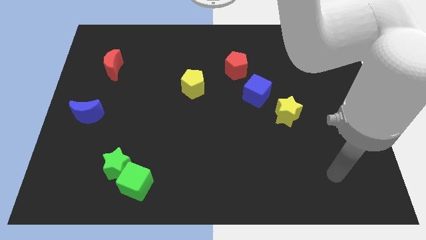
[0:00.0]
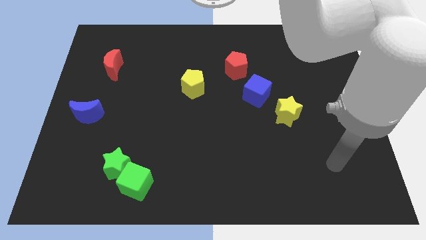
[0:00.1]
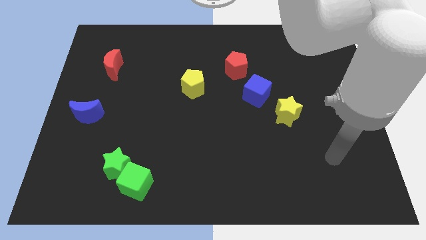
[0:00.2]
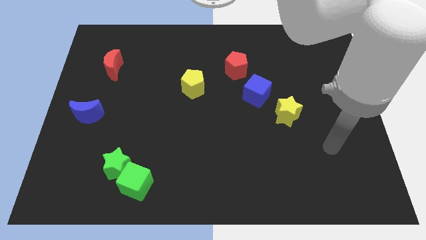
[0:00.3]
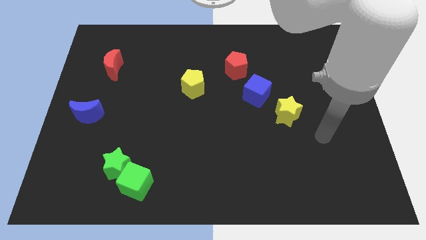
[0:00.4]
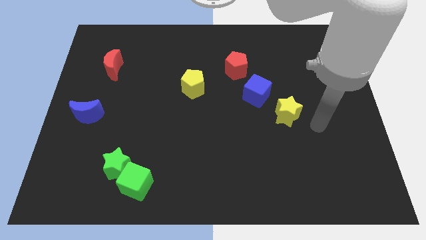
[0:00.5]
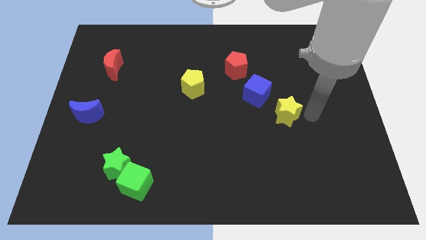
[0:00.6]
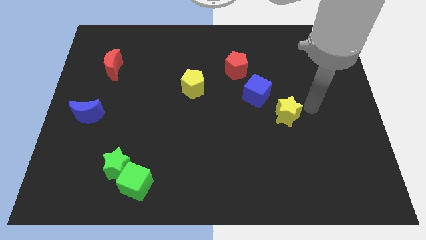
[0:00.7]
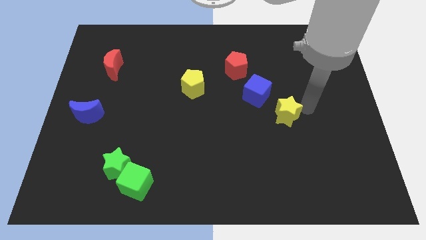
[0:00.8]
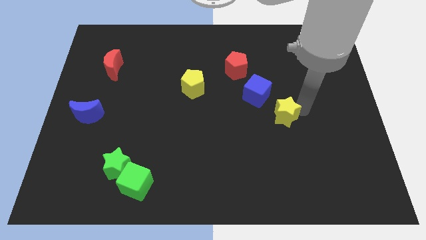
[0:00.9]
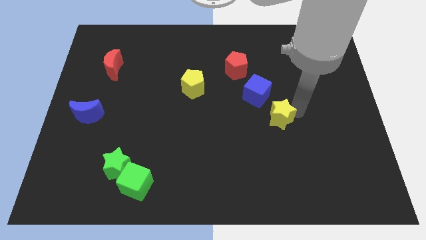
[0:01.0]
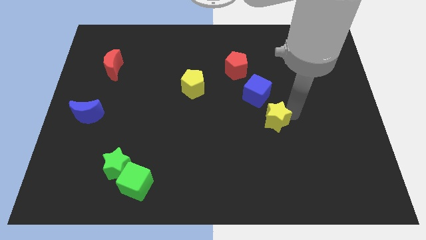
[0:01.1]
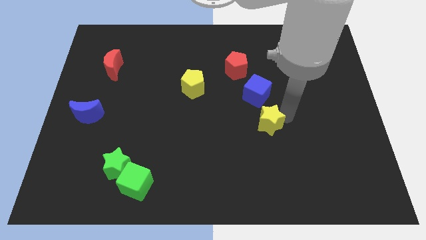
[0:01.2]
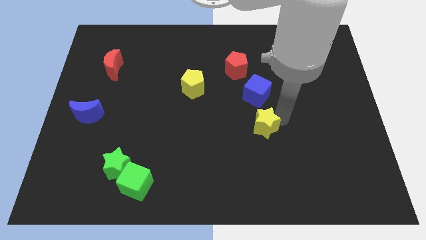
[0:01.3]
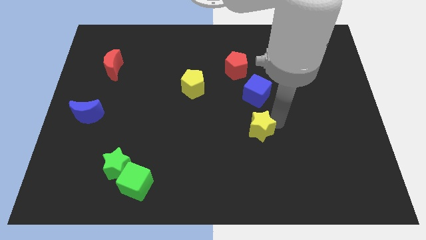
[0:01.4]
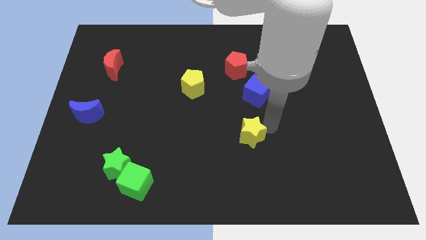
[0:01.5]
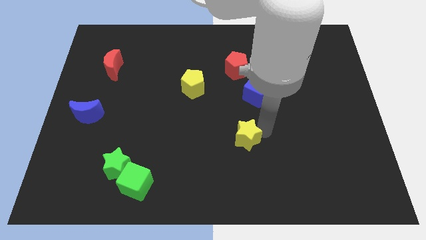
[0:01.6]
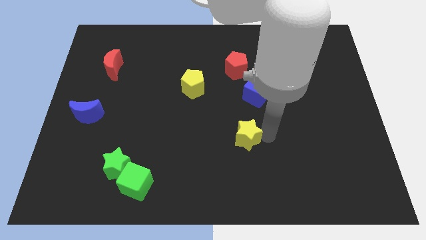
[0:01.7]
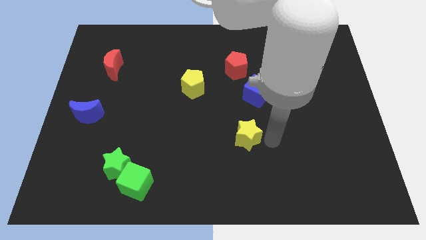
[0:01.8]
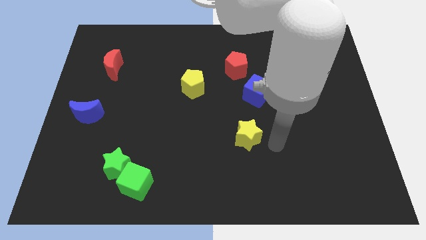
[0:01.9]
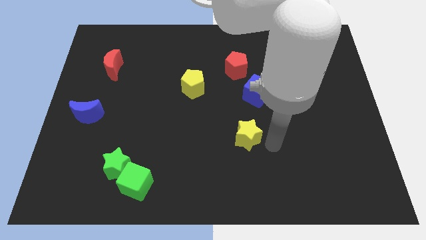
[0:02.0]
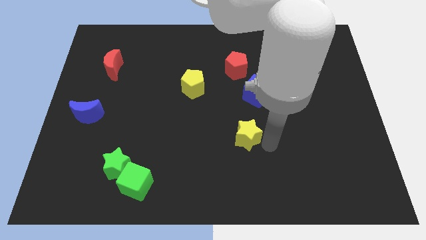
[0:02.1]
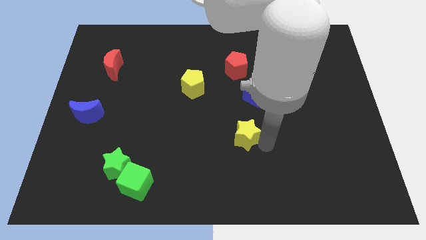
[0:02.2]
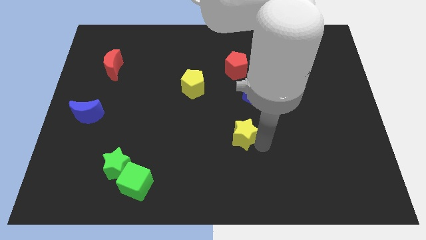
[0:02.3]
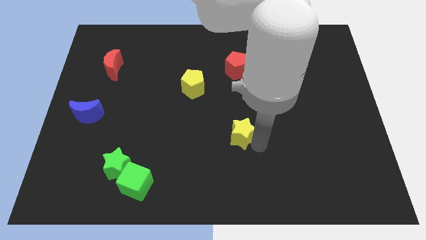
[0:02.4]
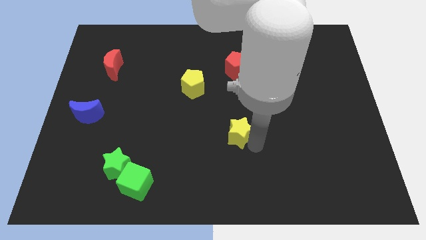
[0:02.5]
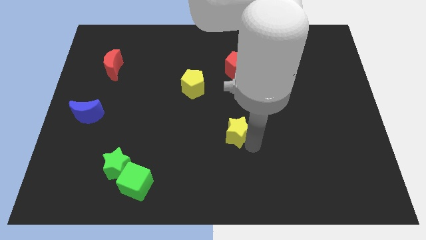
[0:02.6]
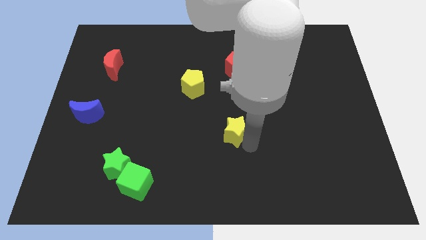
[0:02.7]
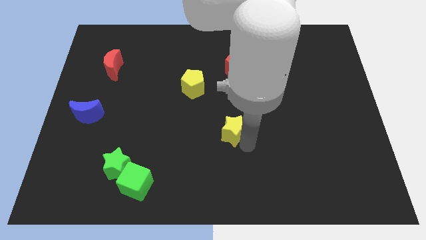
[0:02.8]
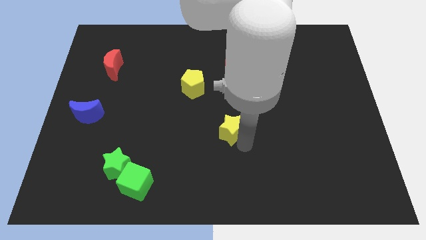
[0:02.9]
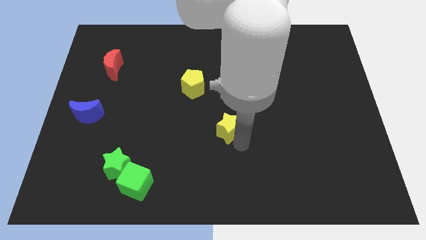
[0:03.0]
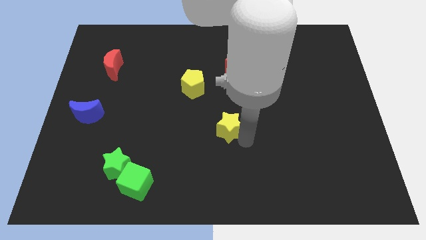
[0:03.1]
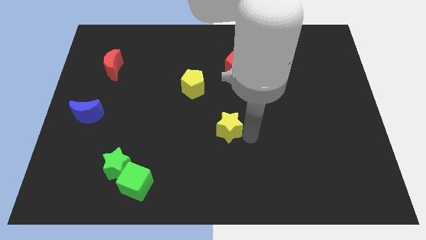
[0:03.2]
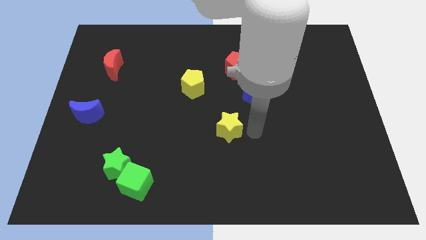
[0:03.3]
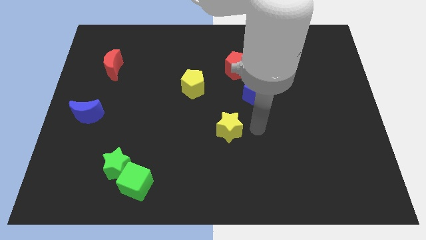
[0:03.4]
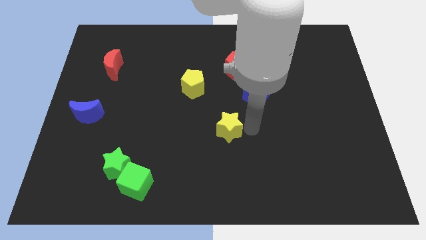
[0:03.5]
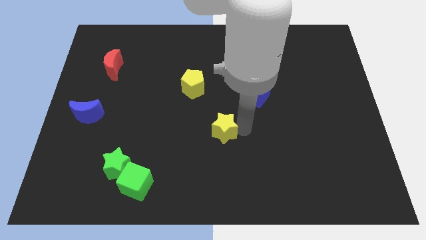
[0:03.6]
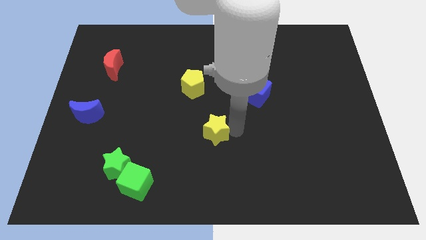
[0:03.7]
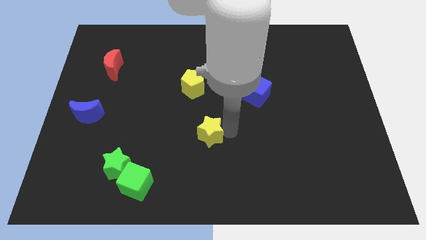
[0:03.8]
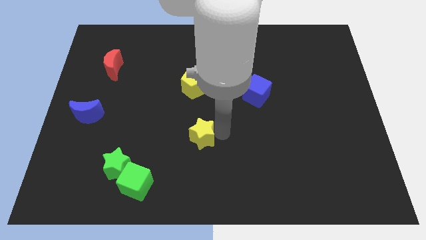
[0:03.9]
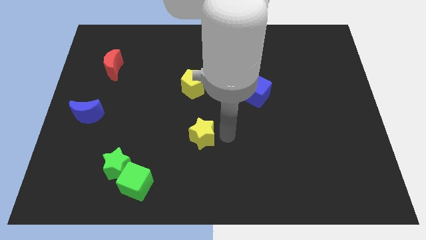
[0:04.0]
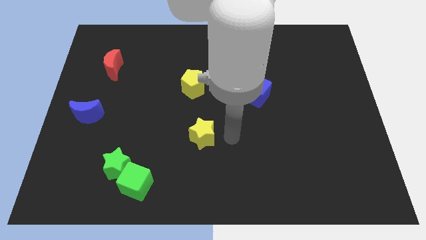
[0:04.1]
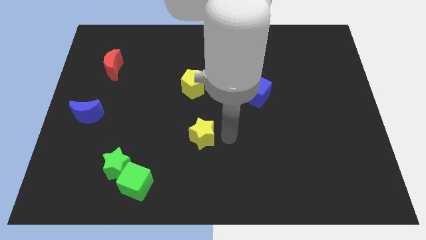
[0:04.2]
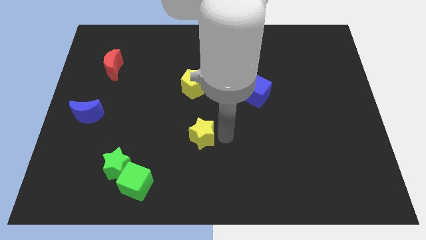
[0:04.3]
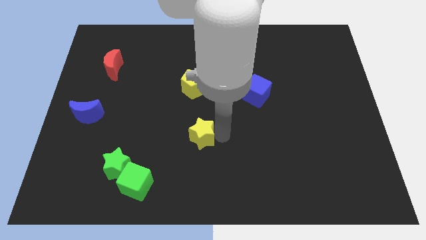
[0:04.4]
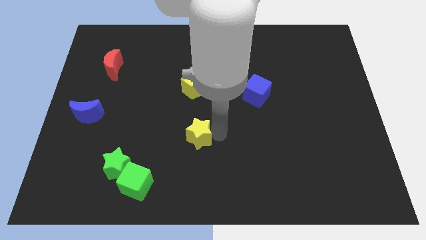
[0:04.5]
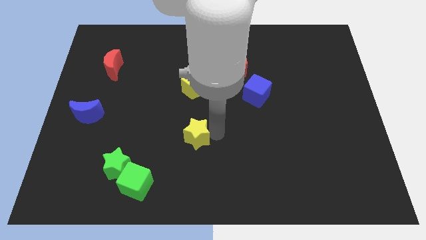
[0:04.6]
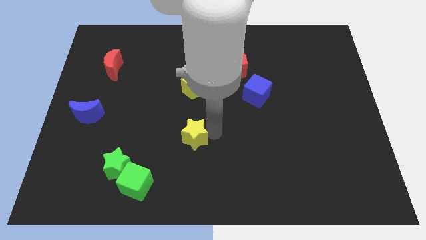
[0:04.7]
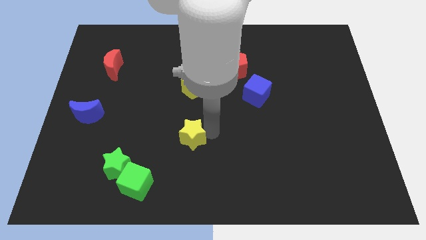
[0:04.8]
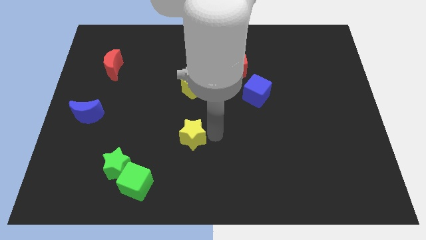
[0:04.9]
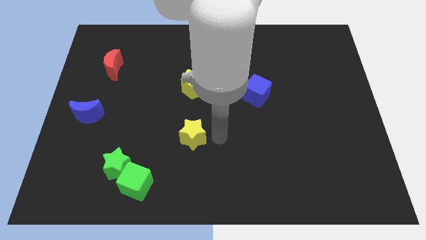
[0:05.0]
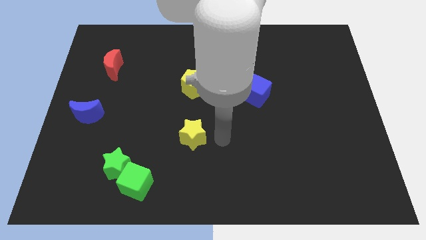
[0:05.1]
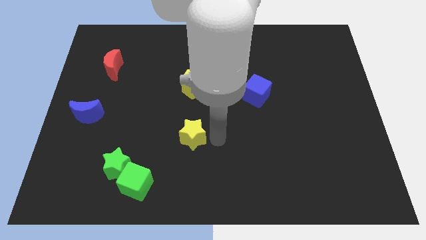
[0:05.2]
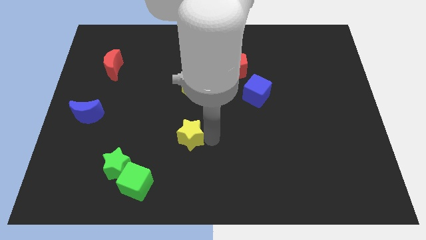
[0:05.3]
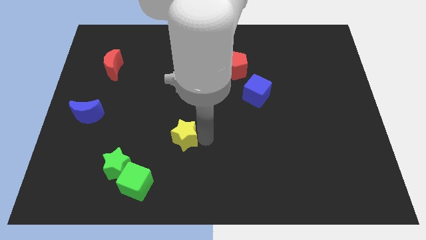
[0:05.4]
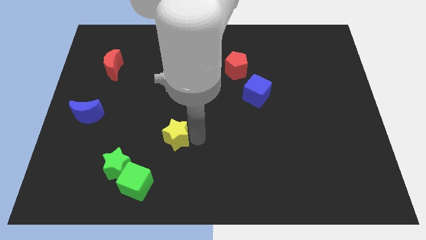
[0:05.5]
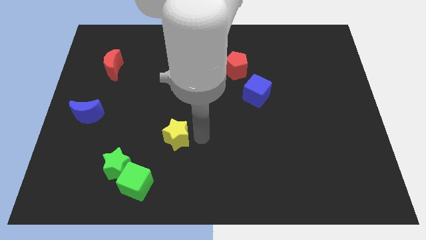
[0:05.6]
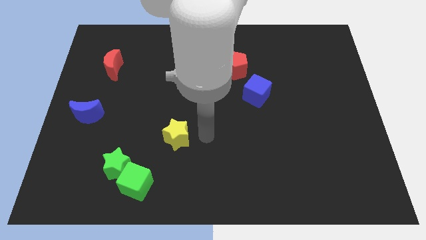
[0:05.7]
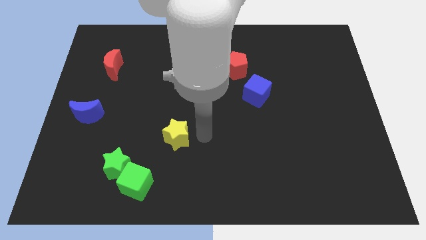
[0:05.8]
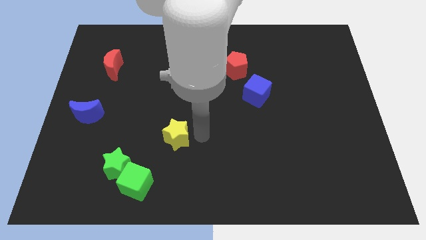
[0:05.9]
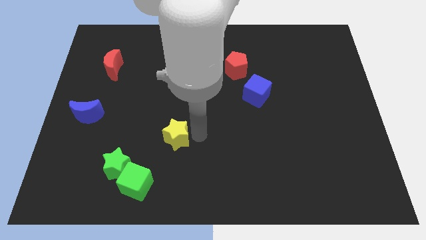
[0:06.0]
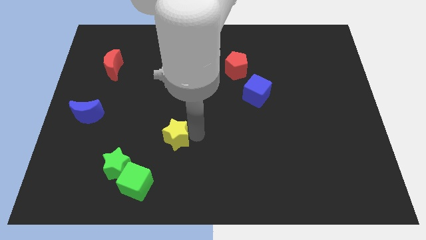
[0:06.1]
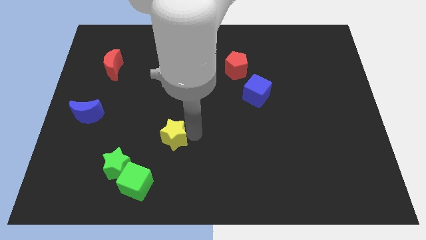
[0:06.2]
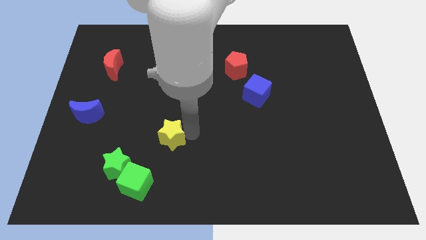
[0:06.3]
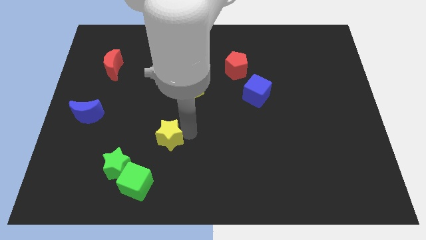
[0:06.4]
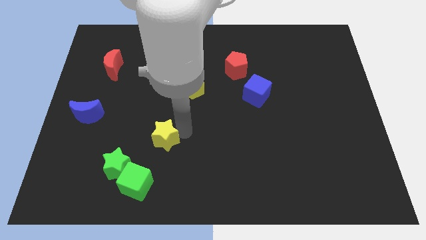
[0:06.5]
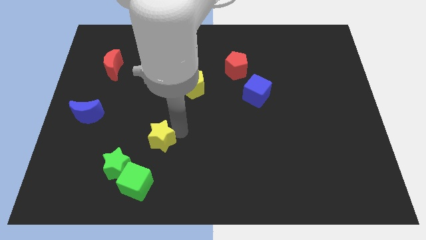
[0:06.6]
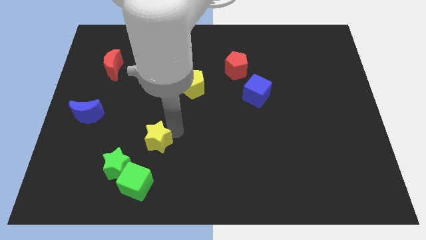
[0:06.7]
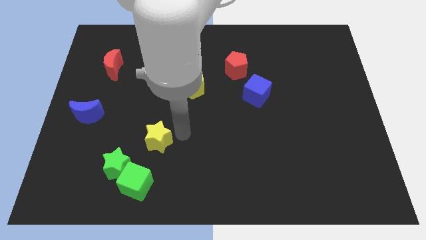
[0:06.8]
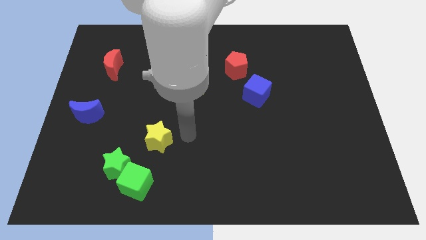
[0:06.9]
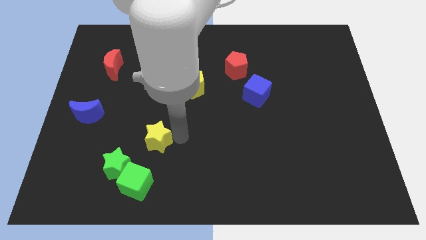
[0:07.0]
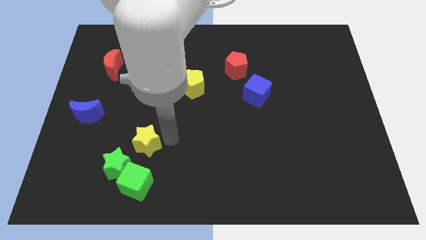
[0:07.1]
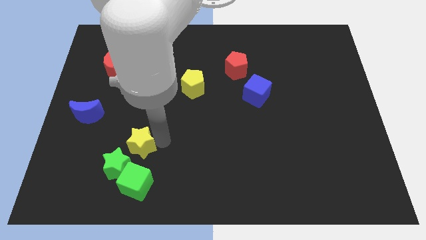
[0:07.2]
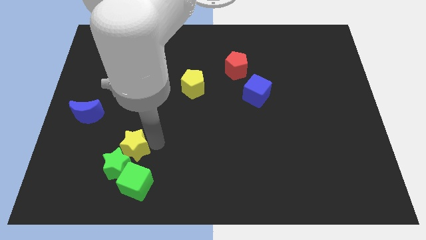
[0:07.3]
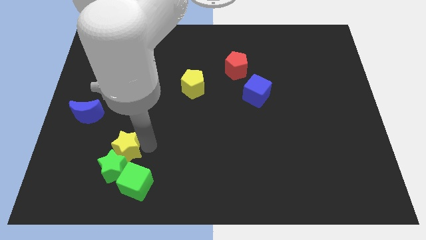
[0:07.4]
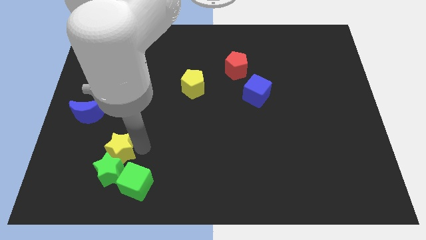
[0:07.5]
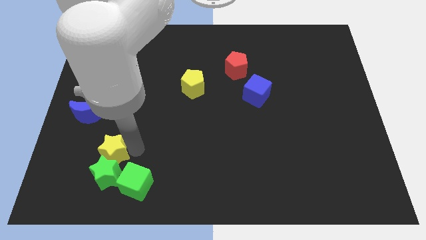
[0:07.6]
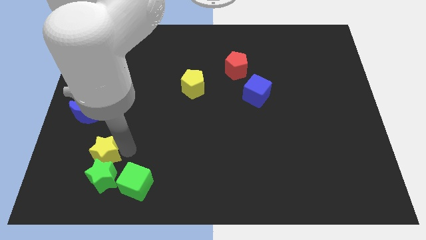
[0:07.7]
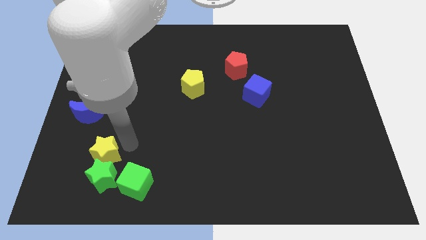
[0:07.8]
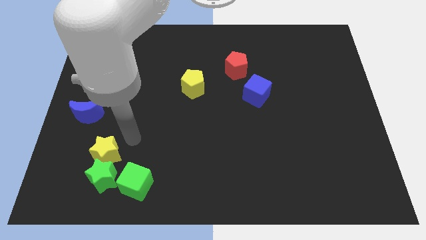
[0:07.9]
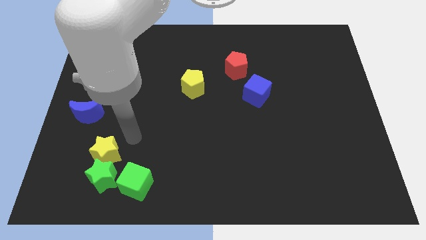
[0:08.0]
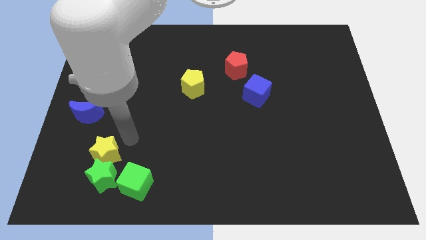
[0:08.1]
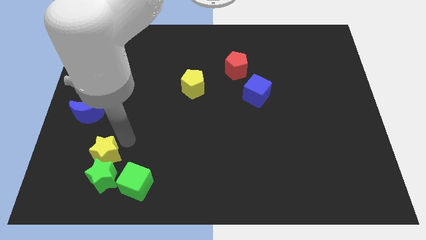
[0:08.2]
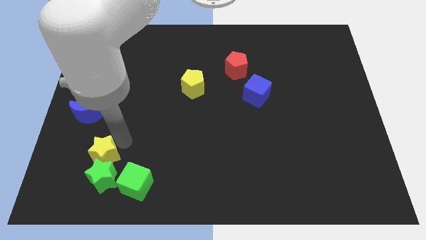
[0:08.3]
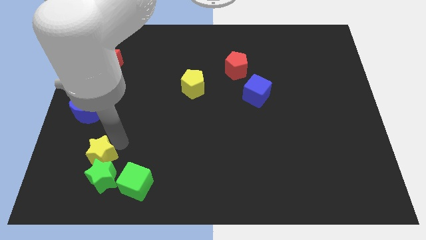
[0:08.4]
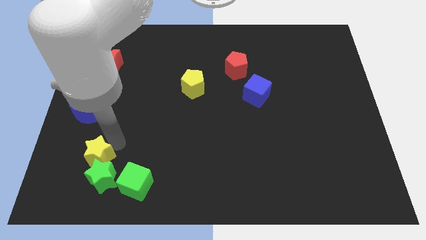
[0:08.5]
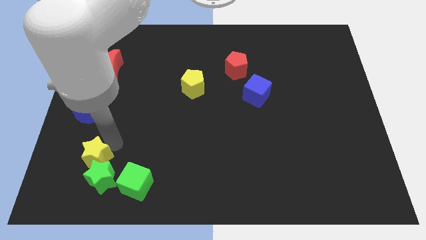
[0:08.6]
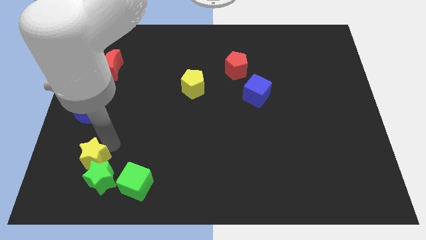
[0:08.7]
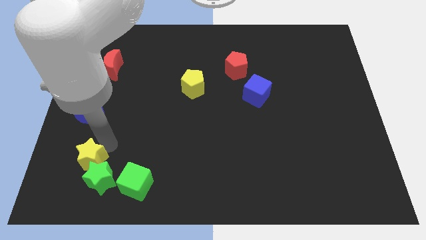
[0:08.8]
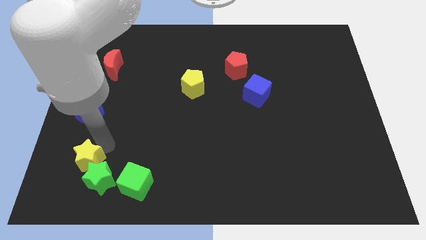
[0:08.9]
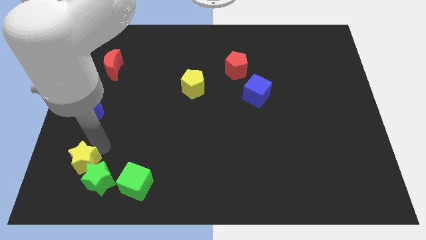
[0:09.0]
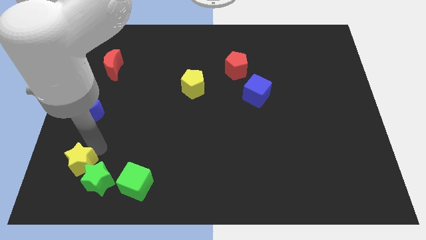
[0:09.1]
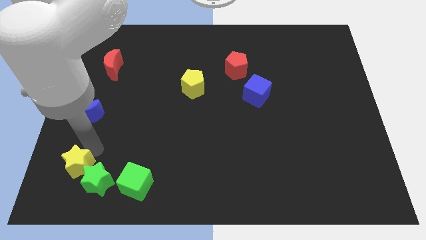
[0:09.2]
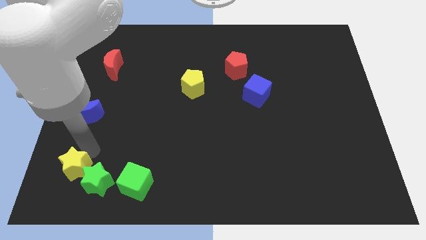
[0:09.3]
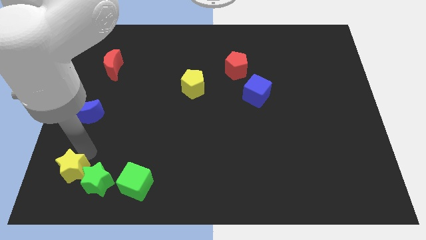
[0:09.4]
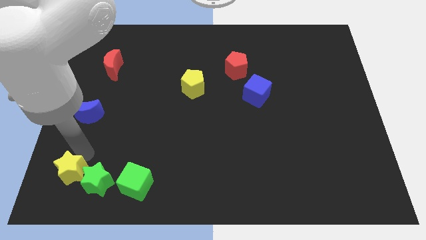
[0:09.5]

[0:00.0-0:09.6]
push the yellow star to the bottom left corner
